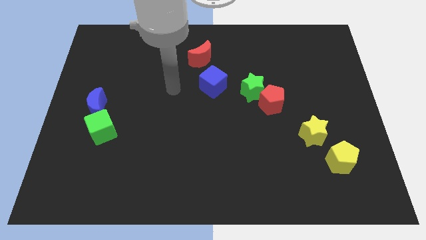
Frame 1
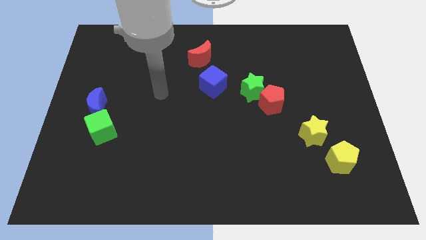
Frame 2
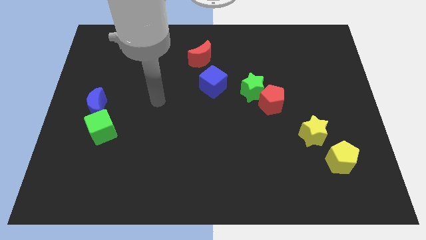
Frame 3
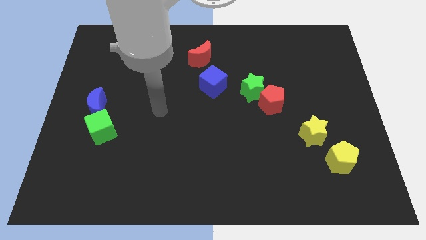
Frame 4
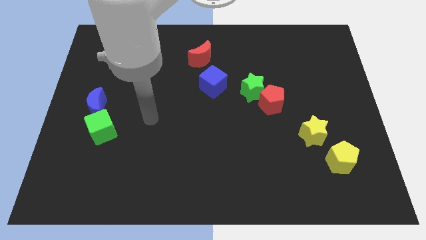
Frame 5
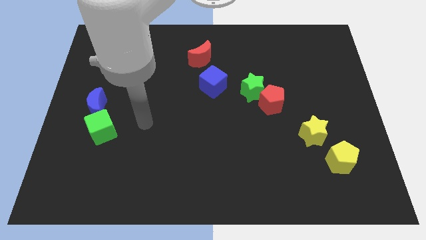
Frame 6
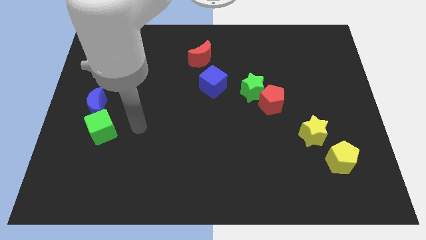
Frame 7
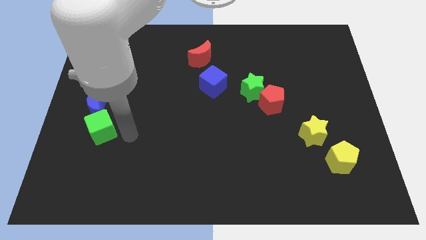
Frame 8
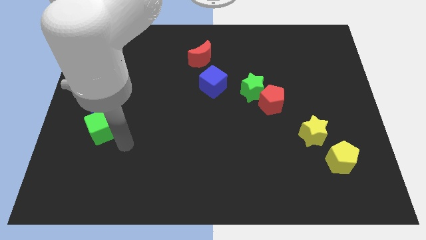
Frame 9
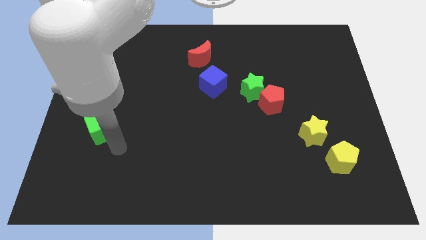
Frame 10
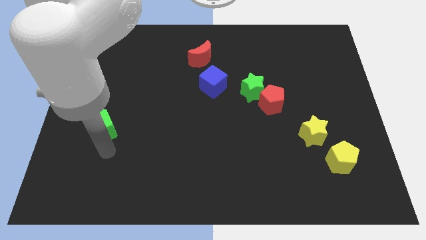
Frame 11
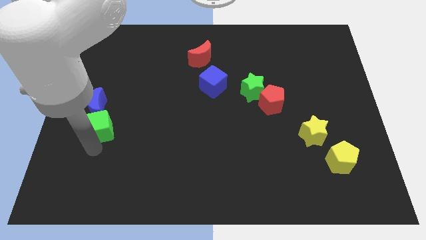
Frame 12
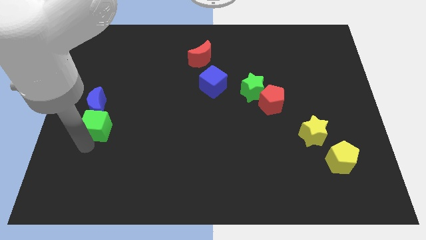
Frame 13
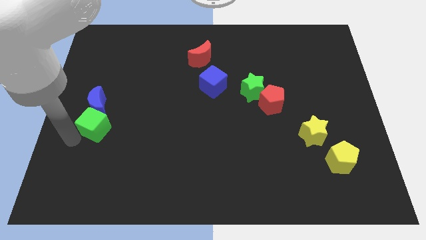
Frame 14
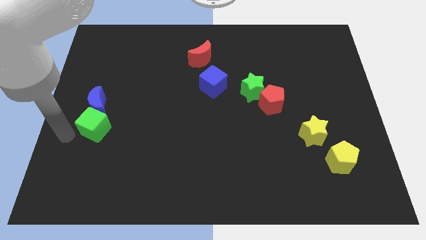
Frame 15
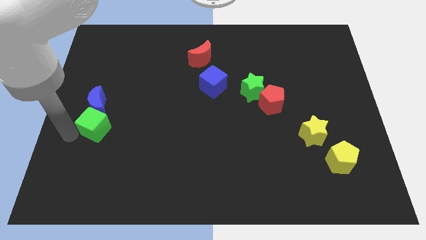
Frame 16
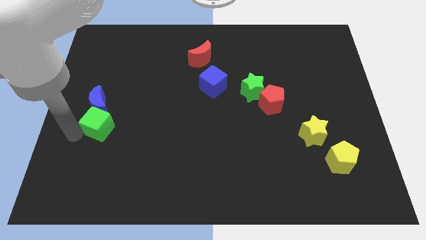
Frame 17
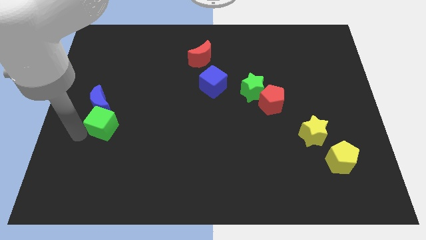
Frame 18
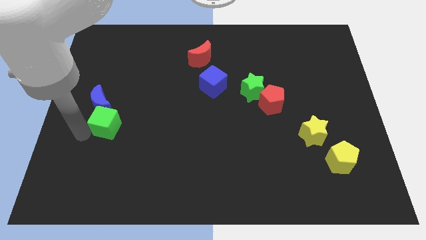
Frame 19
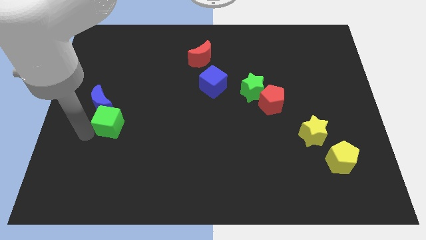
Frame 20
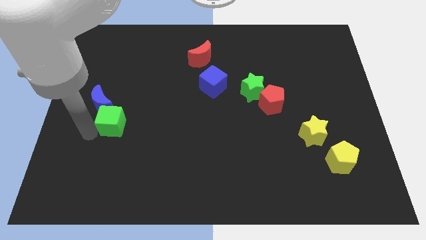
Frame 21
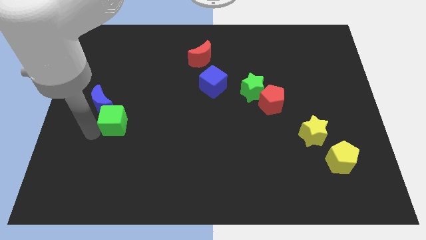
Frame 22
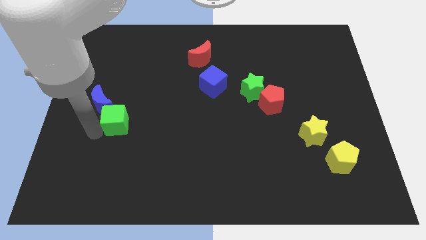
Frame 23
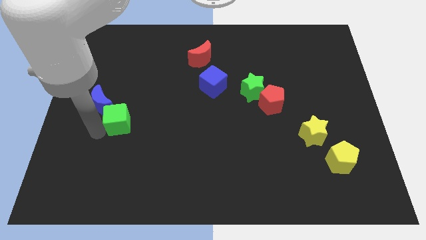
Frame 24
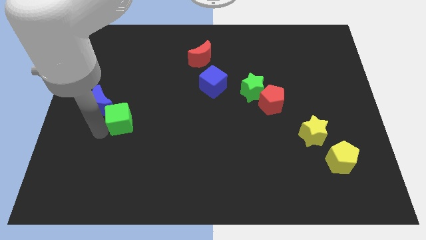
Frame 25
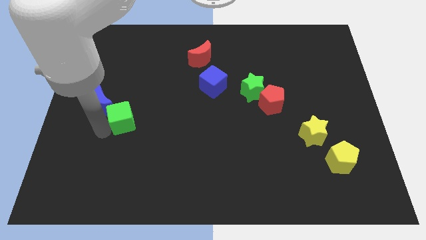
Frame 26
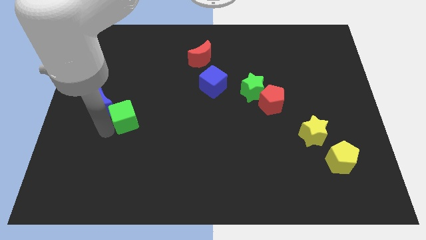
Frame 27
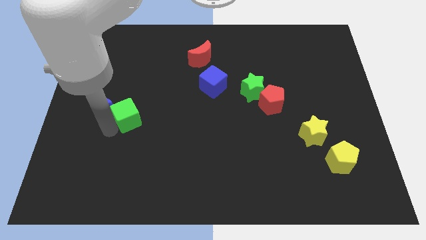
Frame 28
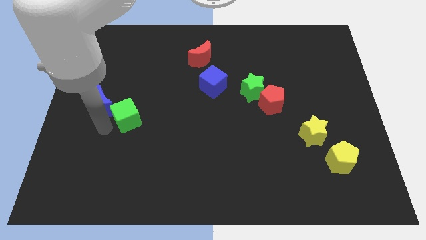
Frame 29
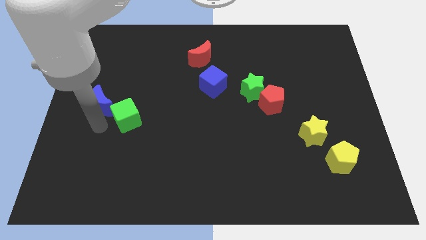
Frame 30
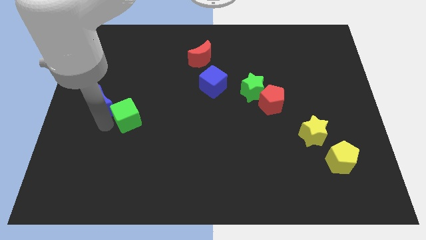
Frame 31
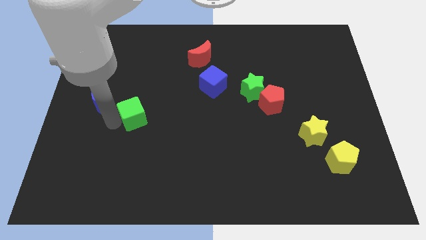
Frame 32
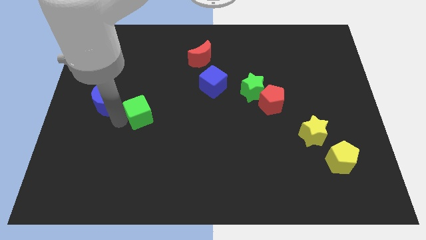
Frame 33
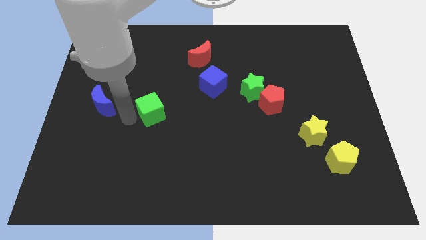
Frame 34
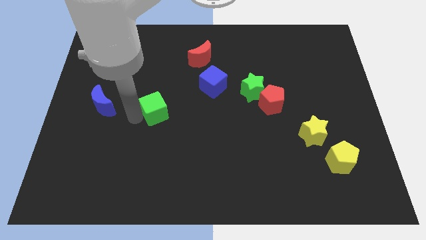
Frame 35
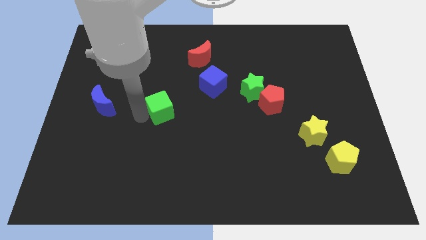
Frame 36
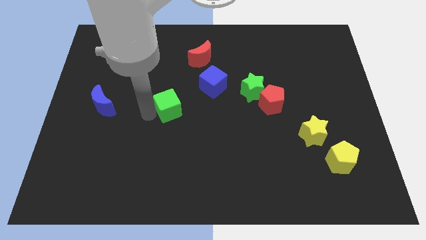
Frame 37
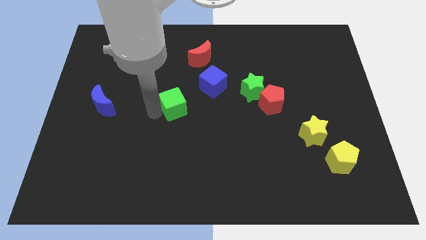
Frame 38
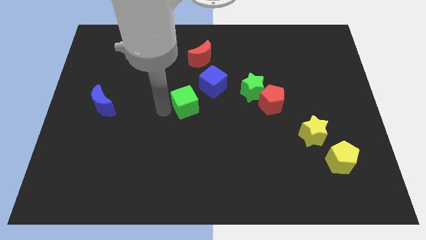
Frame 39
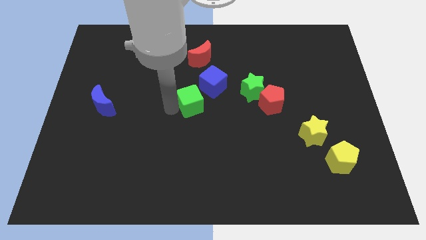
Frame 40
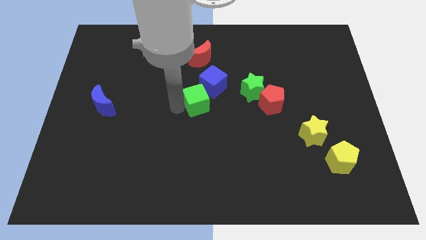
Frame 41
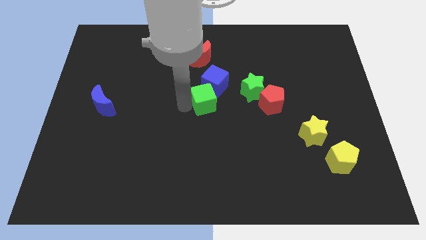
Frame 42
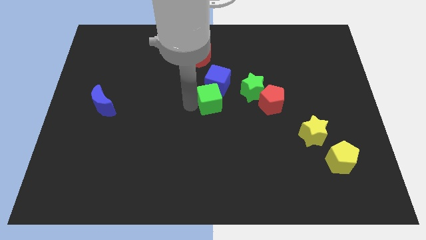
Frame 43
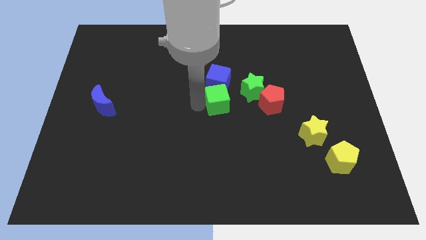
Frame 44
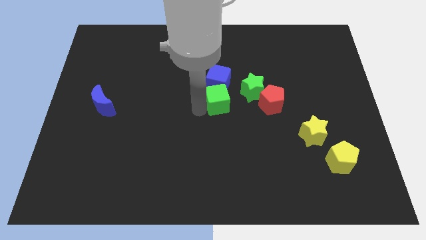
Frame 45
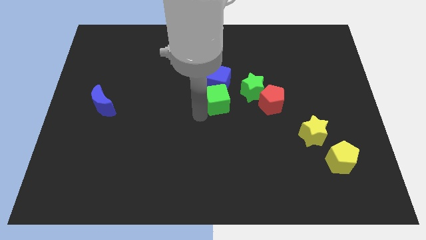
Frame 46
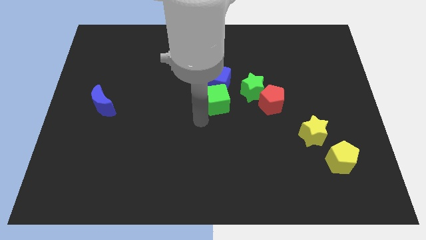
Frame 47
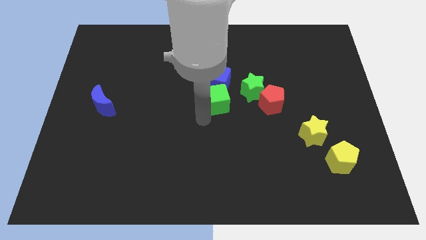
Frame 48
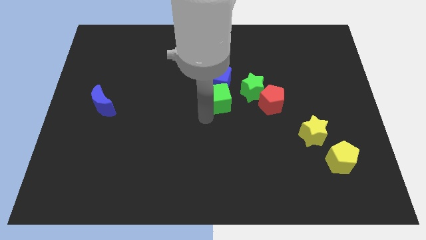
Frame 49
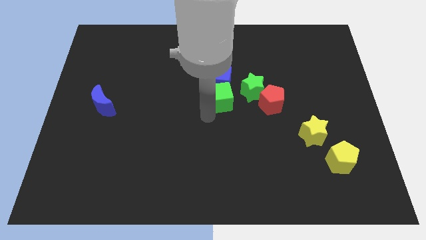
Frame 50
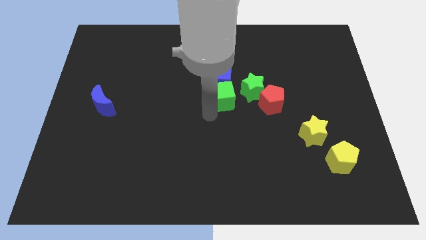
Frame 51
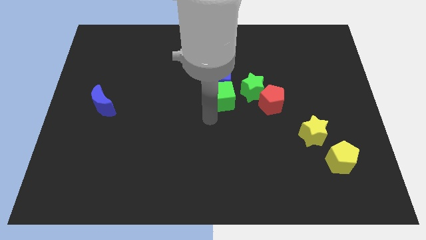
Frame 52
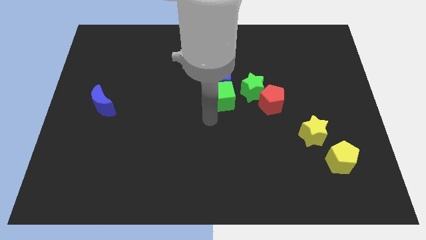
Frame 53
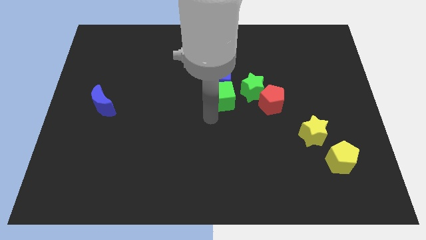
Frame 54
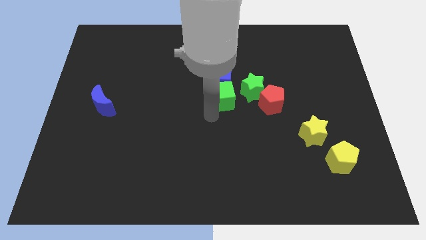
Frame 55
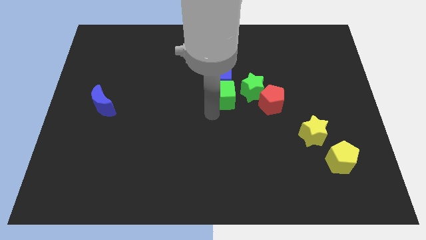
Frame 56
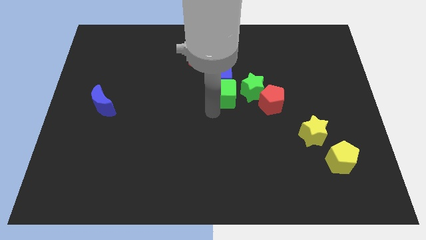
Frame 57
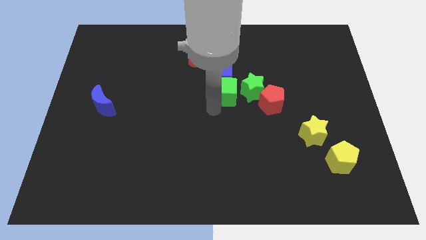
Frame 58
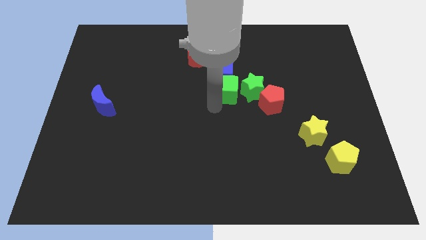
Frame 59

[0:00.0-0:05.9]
slide the green cube to the top left side of the green star

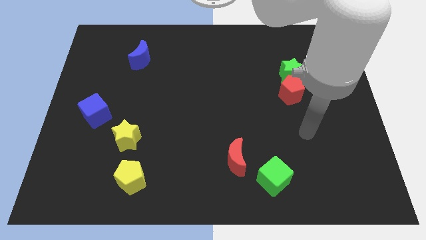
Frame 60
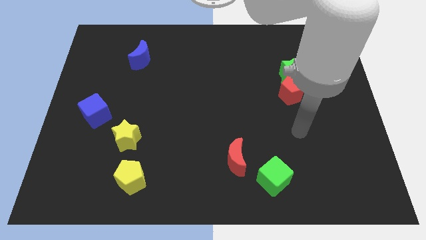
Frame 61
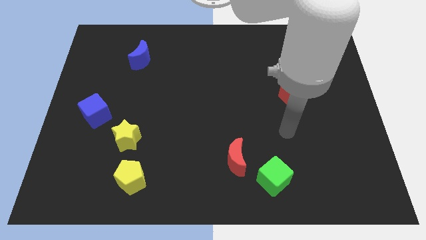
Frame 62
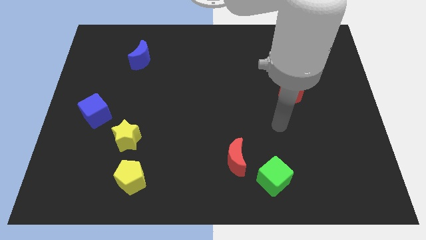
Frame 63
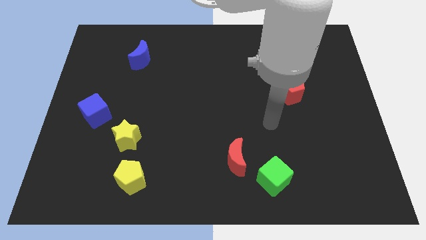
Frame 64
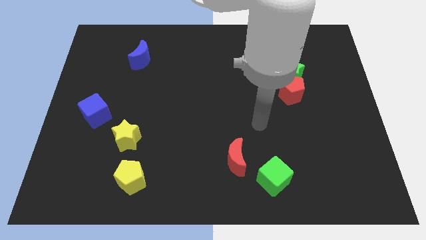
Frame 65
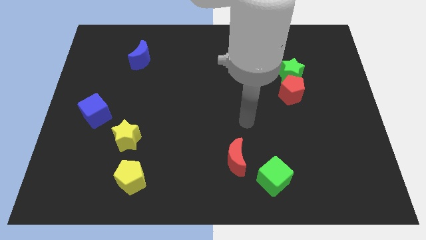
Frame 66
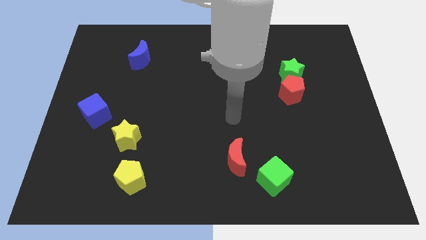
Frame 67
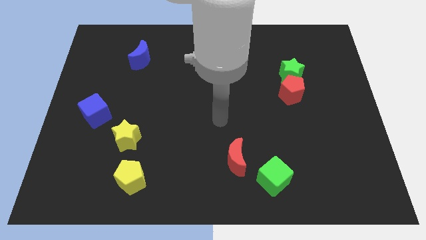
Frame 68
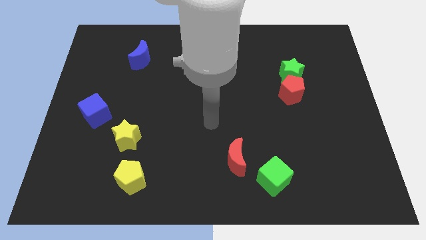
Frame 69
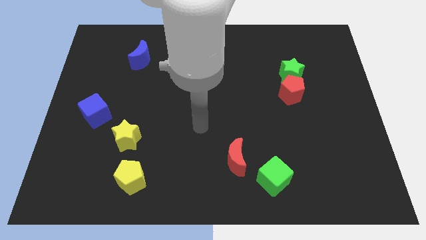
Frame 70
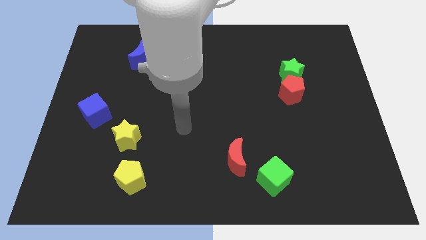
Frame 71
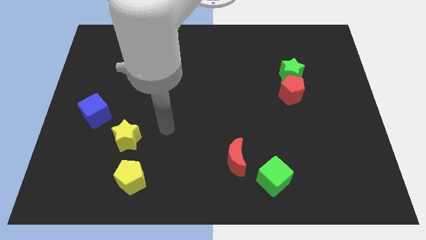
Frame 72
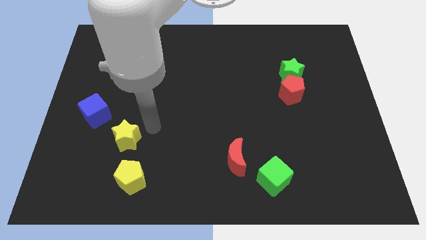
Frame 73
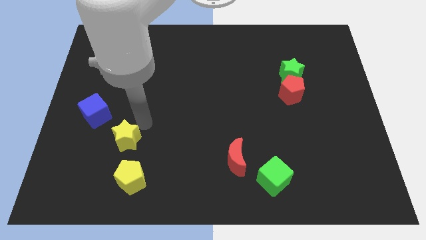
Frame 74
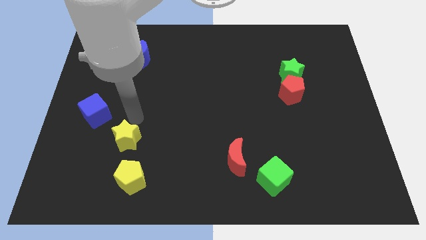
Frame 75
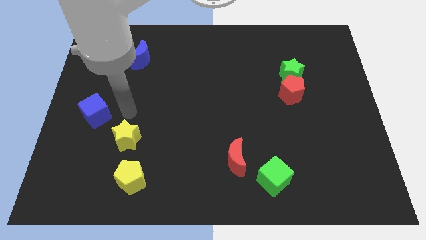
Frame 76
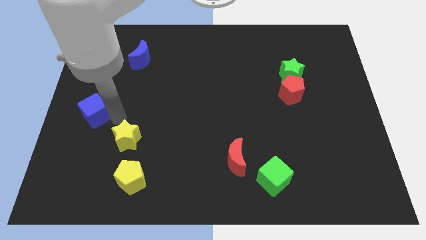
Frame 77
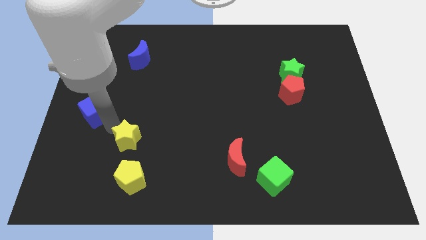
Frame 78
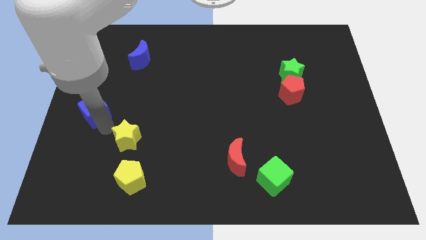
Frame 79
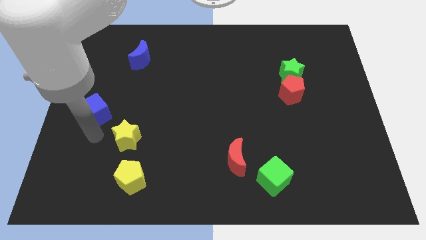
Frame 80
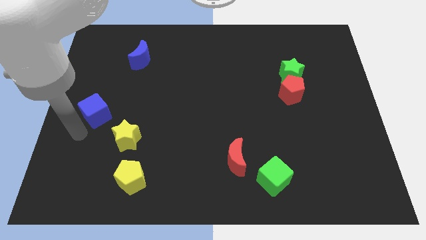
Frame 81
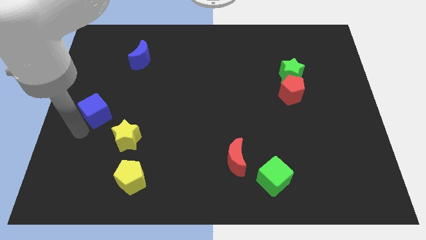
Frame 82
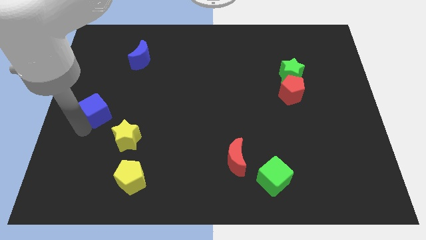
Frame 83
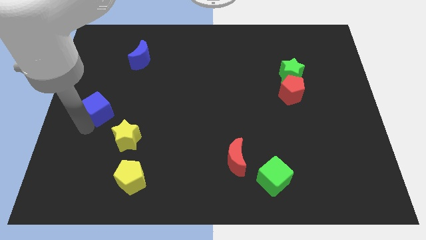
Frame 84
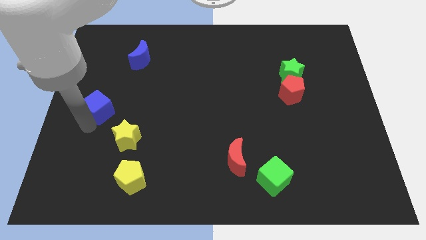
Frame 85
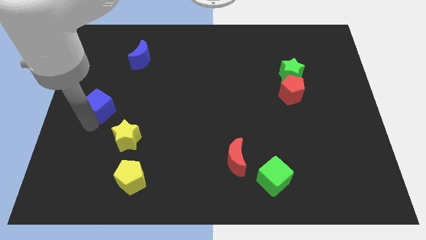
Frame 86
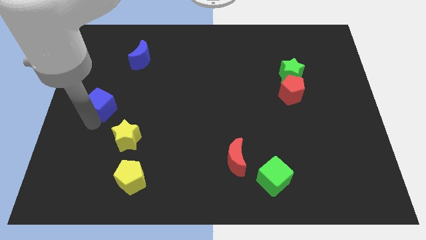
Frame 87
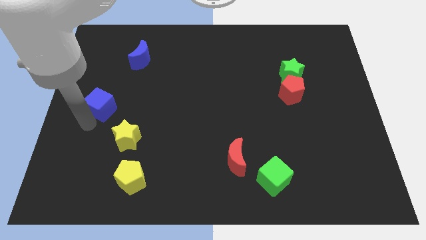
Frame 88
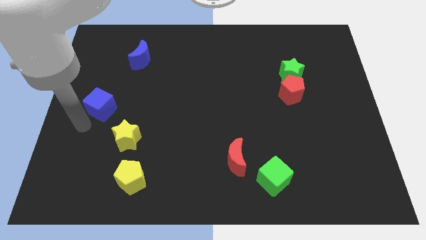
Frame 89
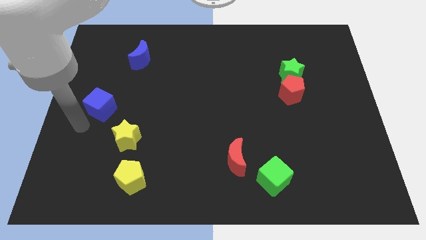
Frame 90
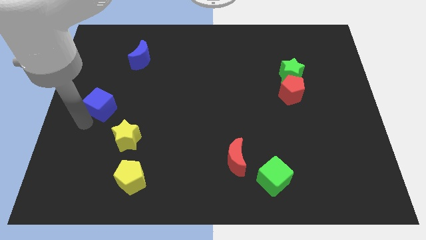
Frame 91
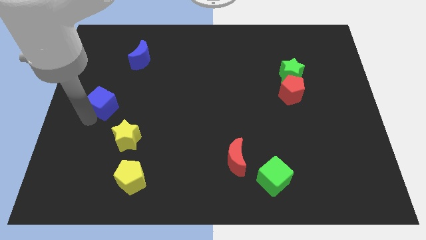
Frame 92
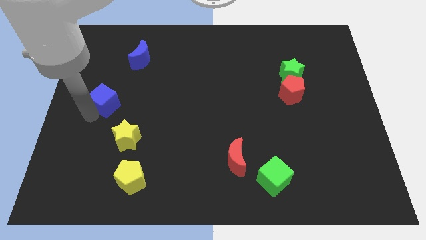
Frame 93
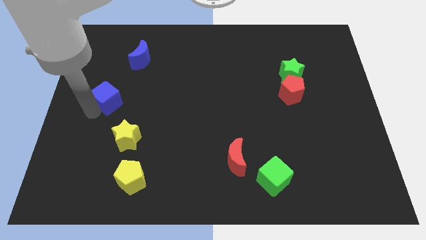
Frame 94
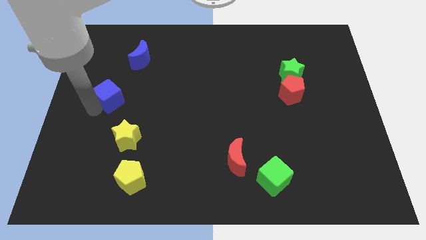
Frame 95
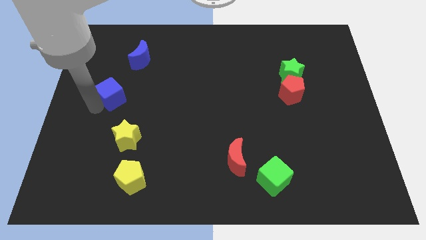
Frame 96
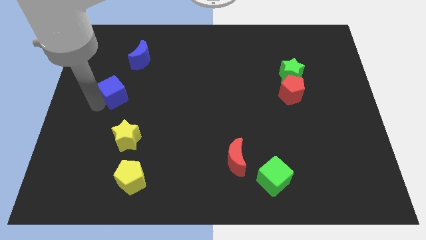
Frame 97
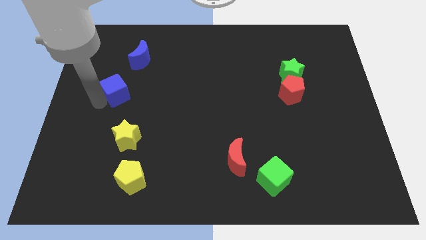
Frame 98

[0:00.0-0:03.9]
push the blue cube to the bottom side of the blue moon
